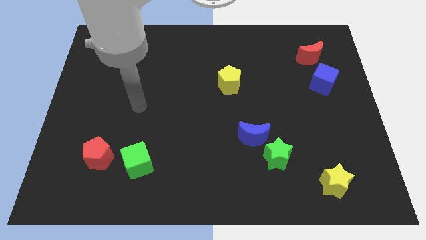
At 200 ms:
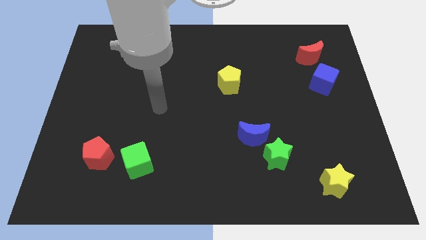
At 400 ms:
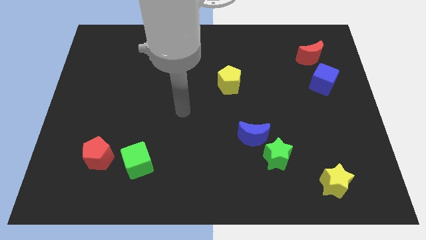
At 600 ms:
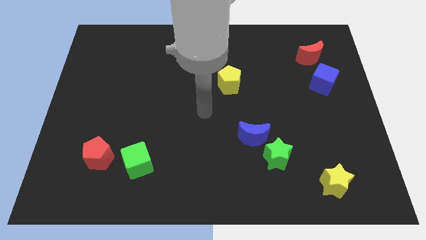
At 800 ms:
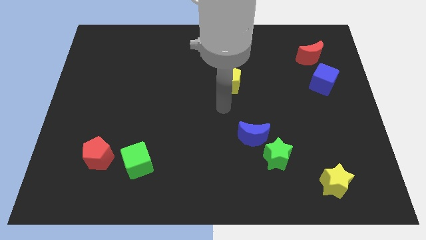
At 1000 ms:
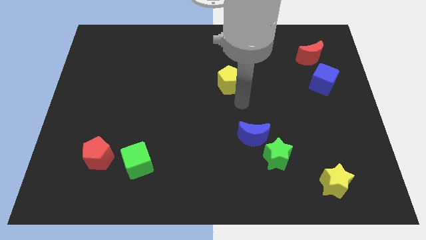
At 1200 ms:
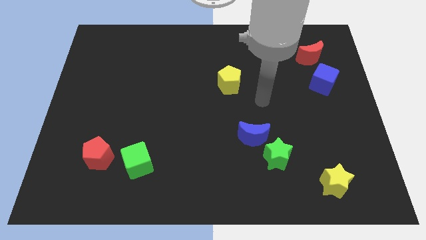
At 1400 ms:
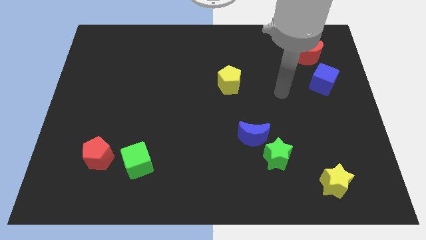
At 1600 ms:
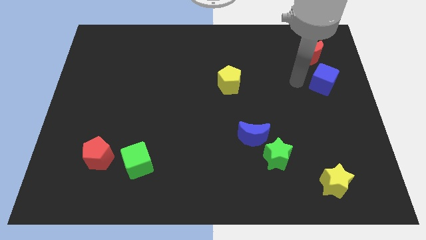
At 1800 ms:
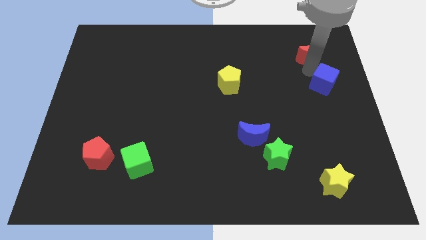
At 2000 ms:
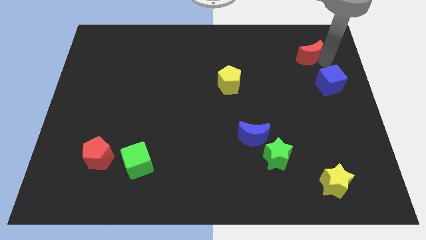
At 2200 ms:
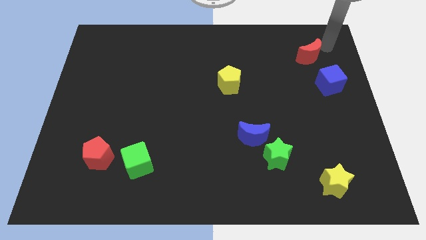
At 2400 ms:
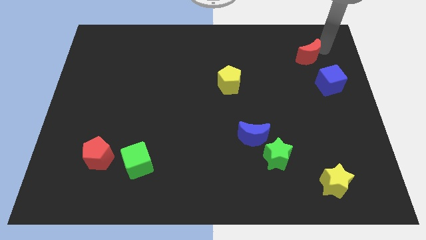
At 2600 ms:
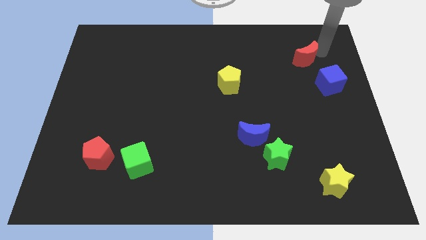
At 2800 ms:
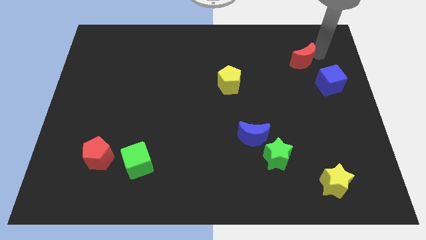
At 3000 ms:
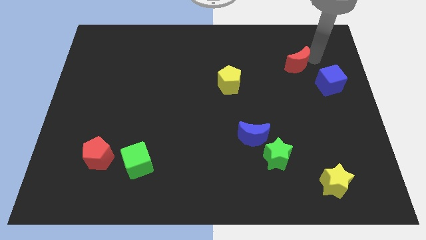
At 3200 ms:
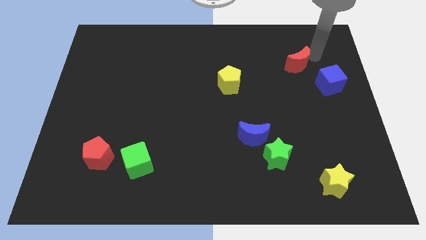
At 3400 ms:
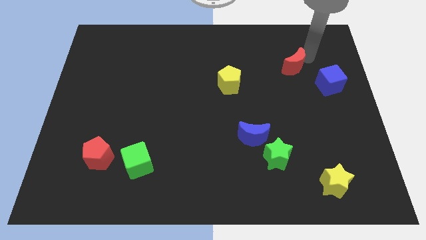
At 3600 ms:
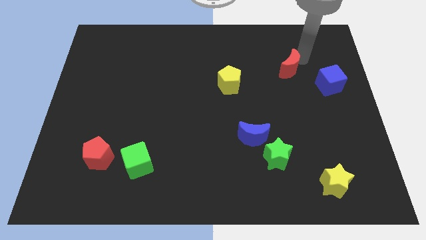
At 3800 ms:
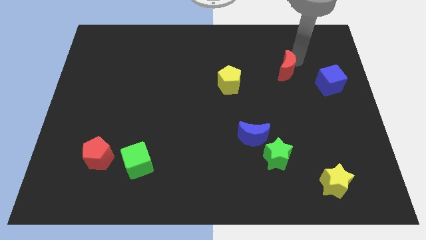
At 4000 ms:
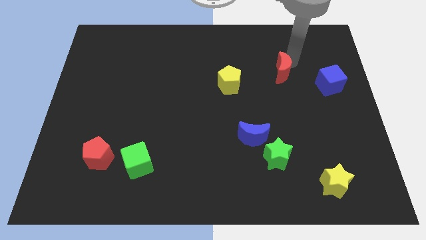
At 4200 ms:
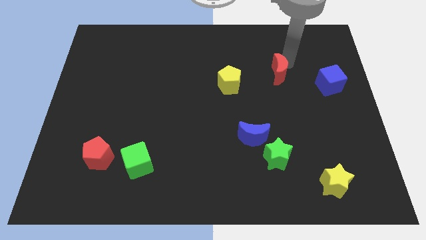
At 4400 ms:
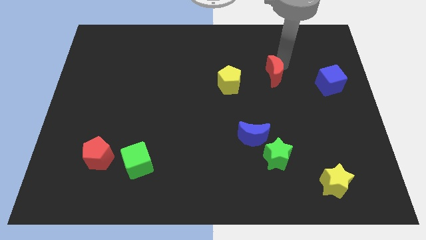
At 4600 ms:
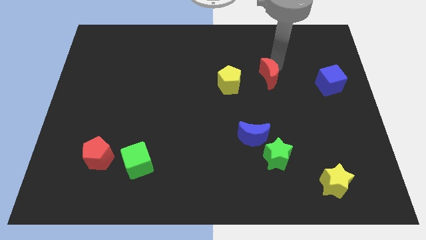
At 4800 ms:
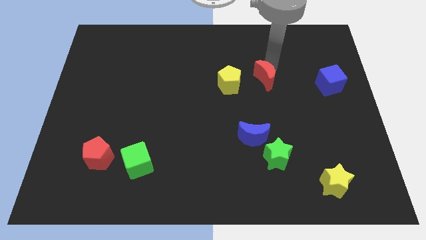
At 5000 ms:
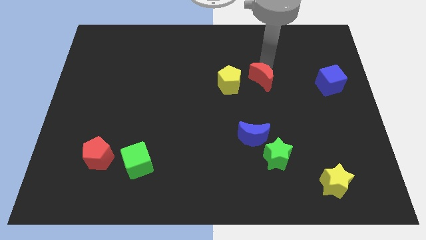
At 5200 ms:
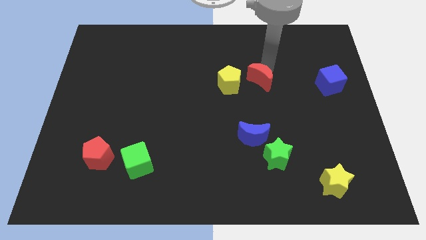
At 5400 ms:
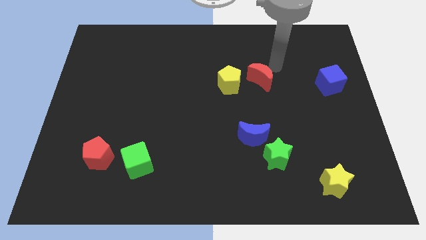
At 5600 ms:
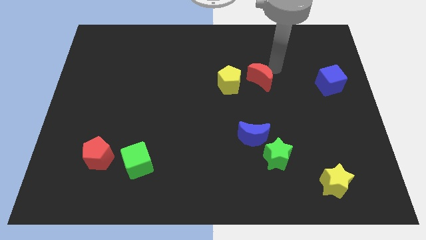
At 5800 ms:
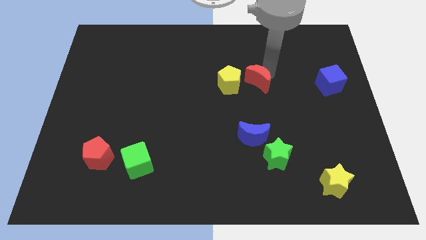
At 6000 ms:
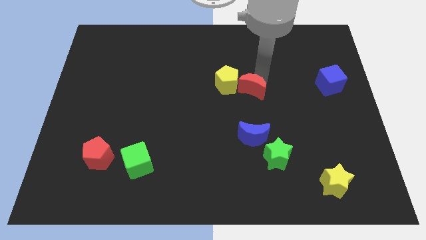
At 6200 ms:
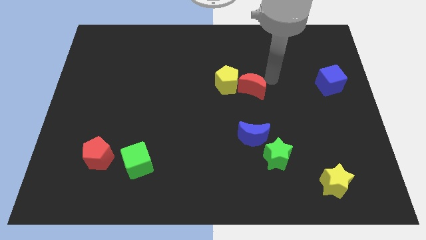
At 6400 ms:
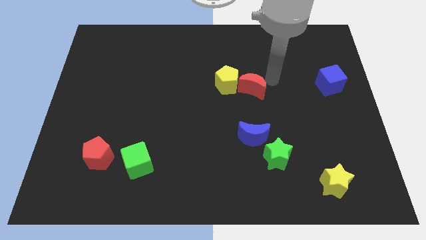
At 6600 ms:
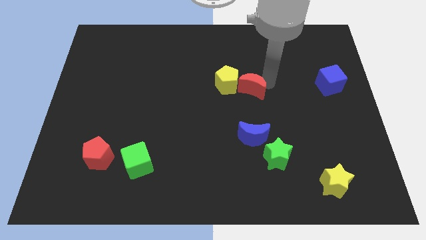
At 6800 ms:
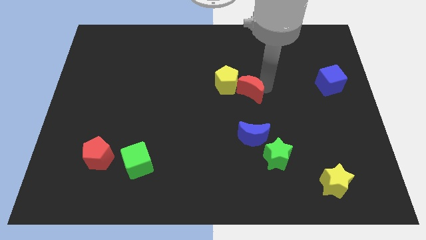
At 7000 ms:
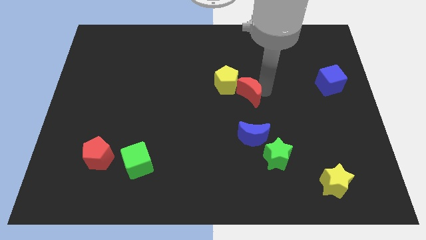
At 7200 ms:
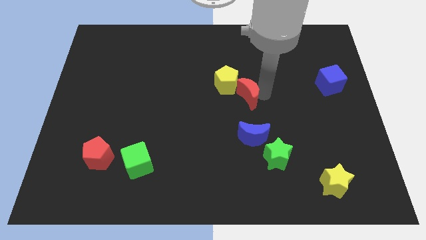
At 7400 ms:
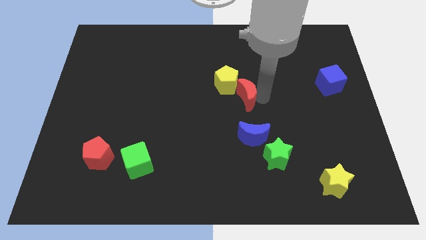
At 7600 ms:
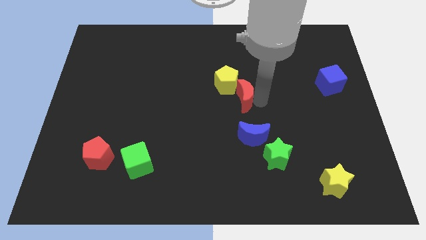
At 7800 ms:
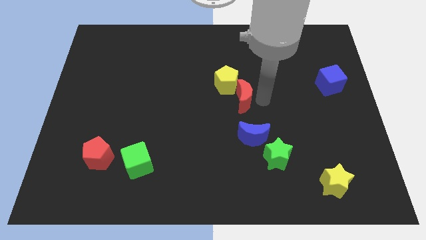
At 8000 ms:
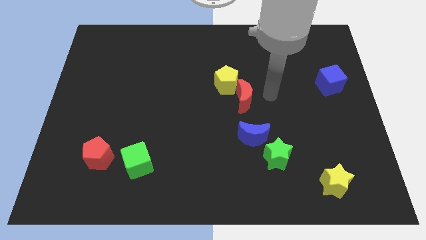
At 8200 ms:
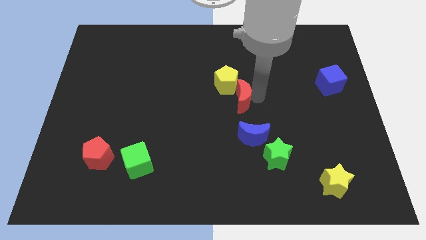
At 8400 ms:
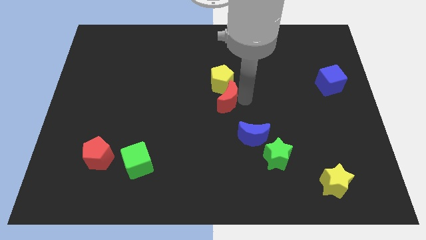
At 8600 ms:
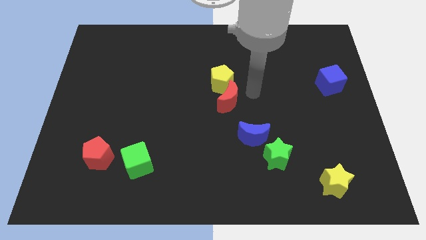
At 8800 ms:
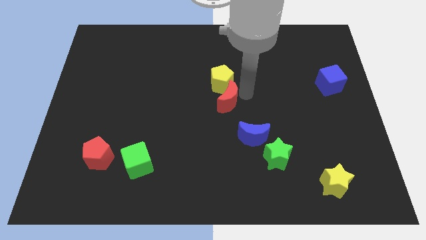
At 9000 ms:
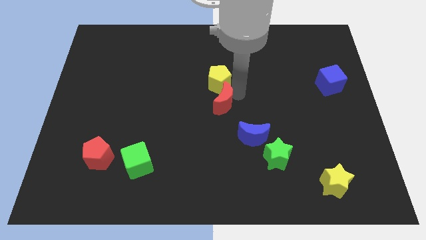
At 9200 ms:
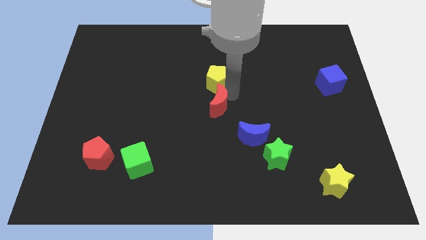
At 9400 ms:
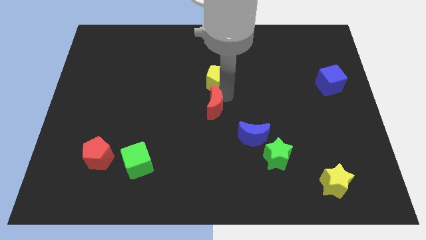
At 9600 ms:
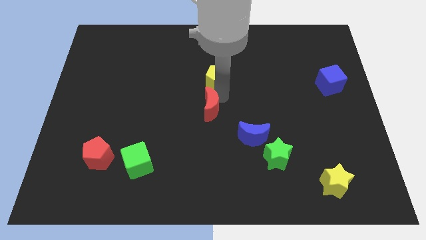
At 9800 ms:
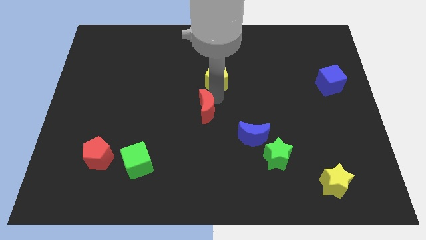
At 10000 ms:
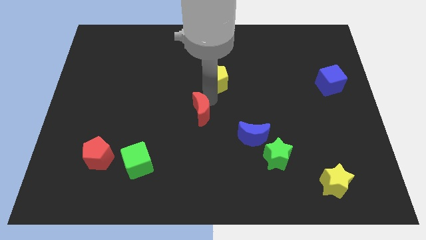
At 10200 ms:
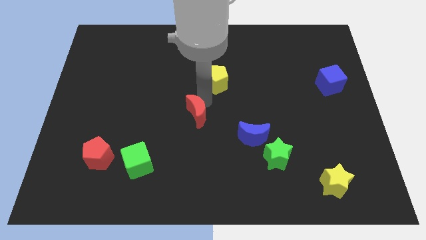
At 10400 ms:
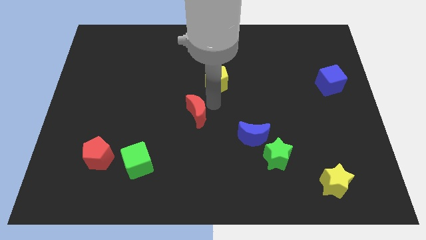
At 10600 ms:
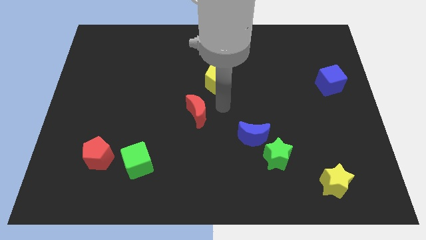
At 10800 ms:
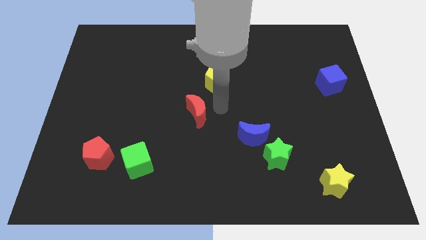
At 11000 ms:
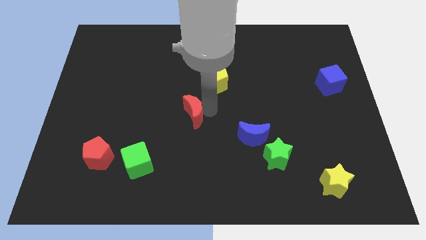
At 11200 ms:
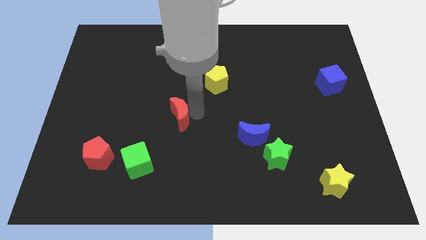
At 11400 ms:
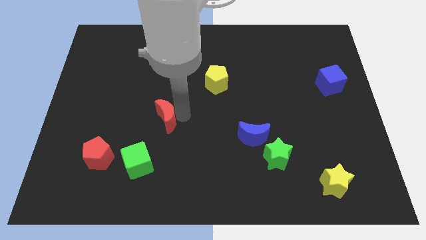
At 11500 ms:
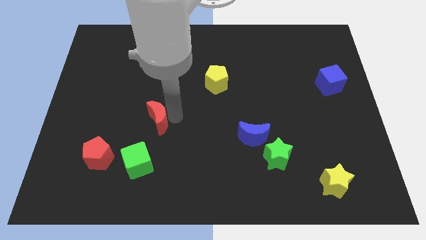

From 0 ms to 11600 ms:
move the red moon to the top of the green cube

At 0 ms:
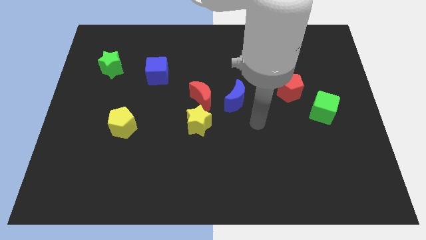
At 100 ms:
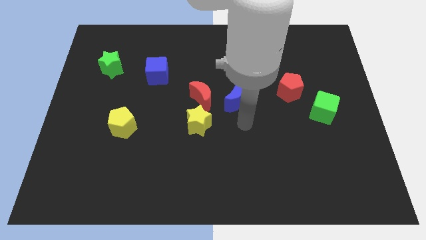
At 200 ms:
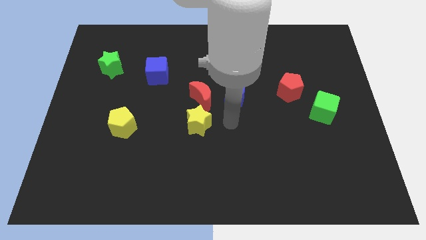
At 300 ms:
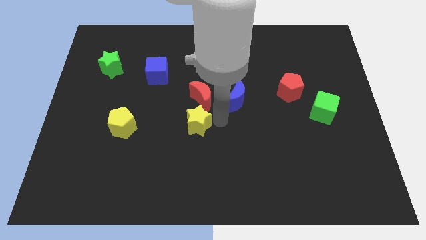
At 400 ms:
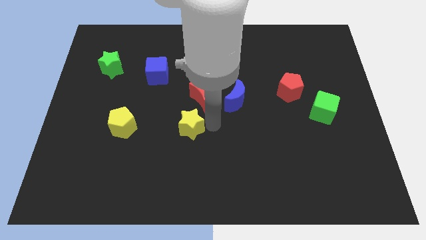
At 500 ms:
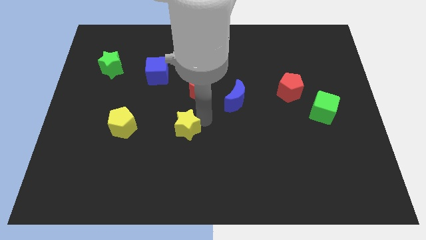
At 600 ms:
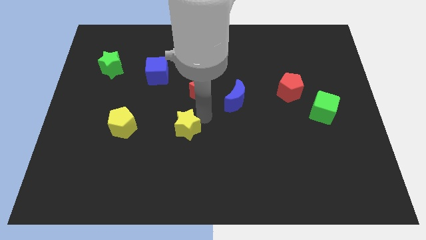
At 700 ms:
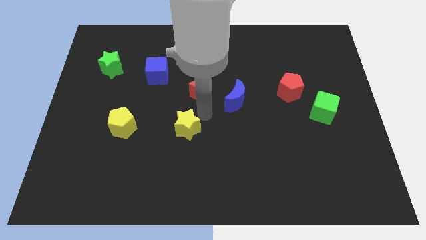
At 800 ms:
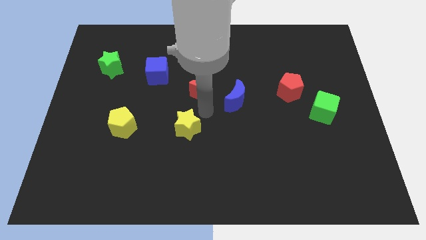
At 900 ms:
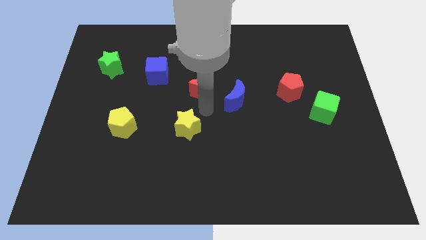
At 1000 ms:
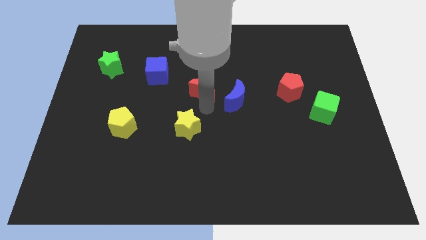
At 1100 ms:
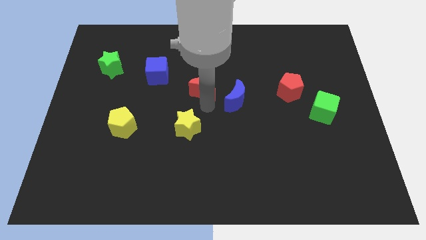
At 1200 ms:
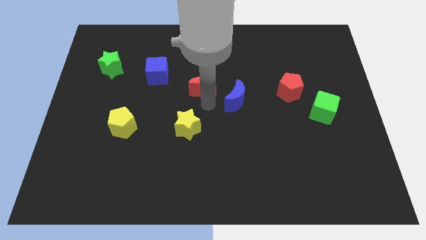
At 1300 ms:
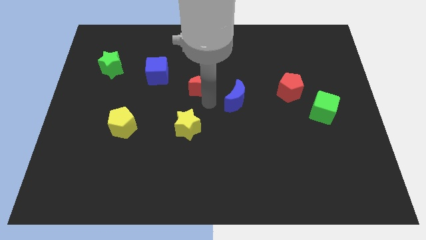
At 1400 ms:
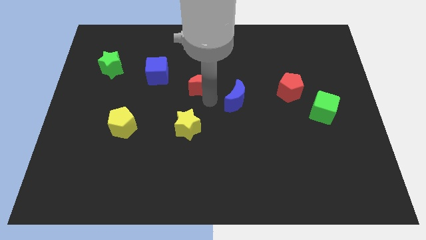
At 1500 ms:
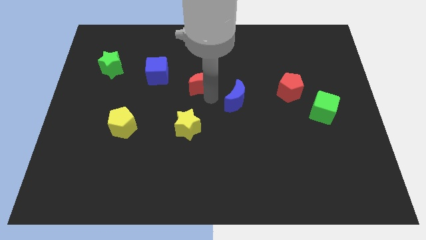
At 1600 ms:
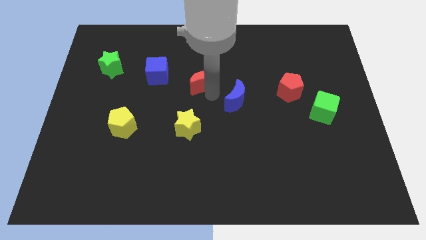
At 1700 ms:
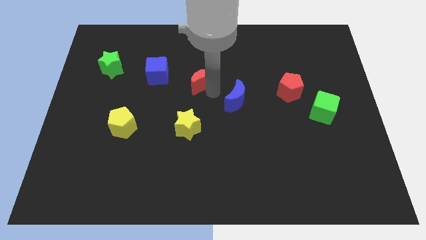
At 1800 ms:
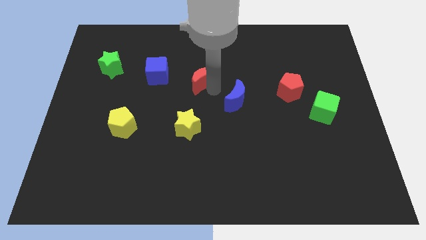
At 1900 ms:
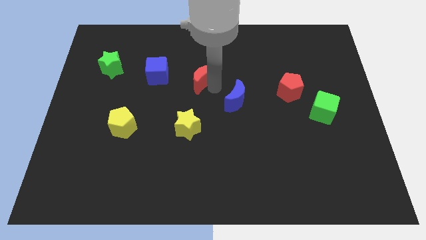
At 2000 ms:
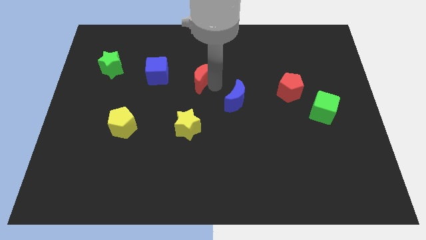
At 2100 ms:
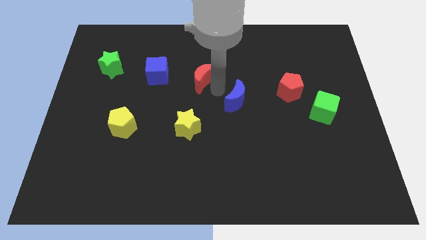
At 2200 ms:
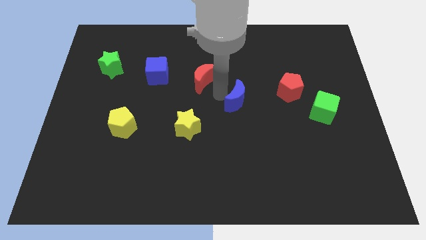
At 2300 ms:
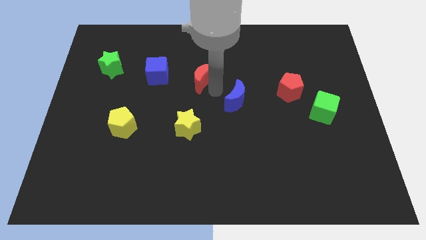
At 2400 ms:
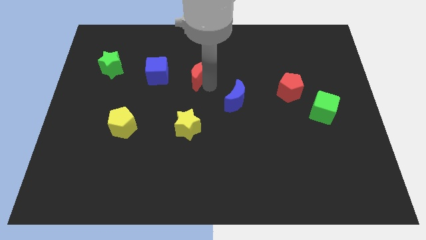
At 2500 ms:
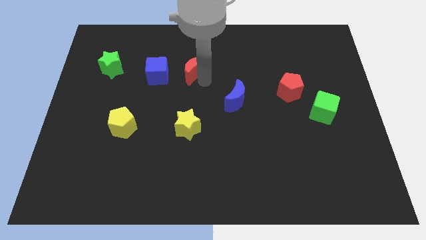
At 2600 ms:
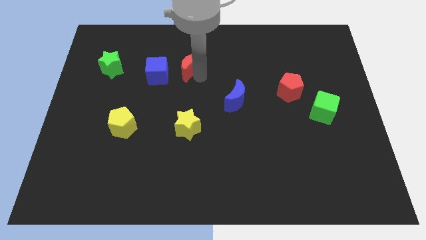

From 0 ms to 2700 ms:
move the red moon diagonally up and to the right of the blue cube
